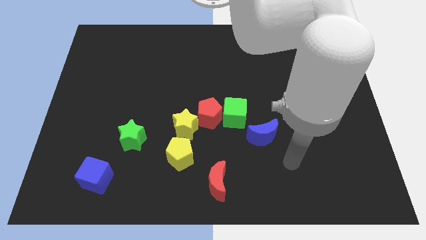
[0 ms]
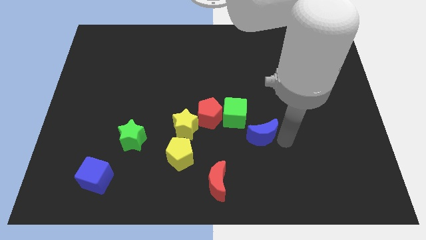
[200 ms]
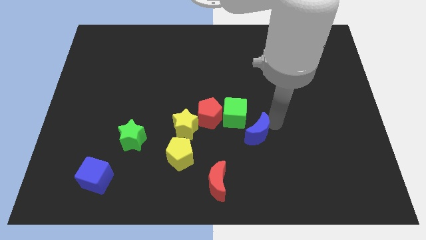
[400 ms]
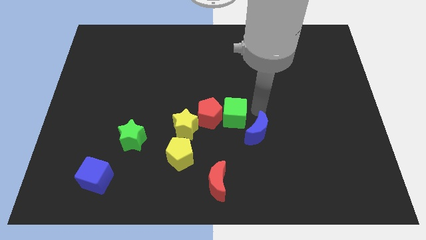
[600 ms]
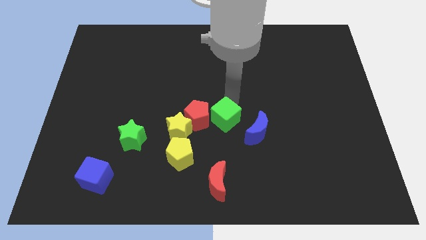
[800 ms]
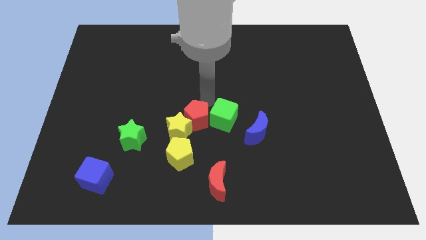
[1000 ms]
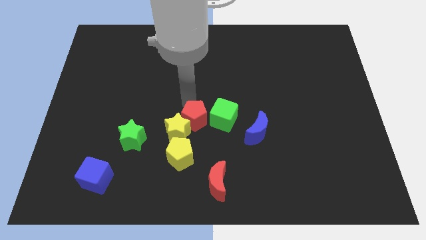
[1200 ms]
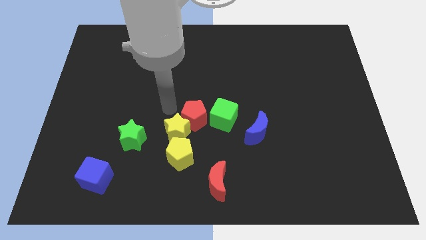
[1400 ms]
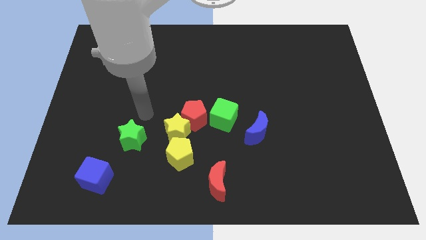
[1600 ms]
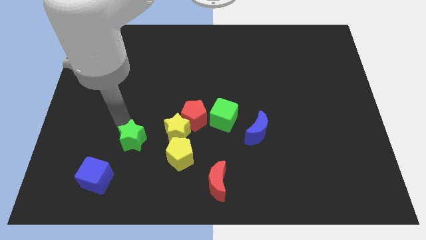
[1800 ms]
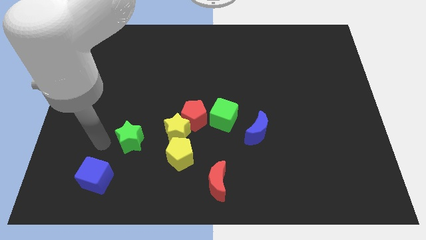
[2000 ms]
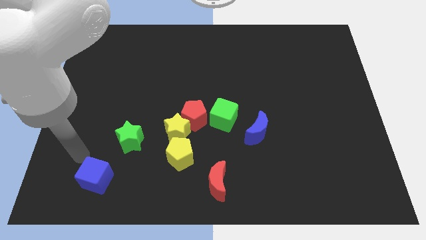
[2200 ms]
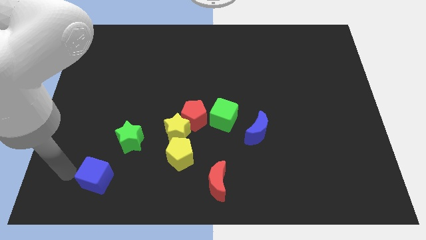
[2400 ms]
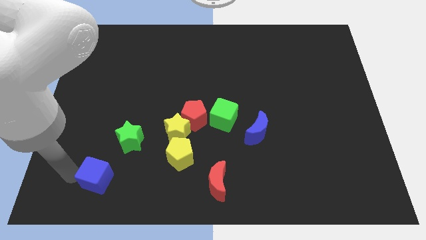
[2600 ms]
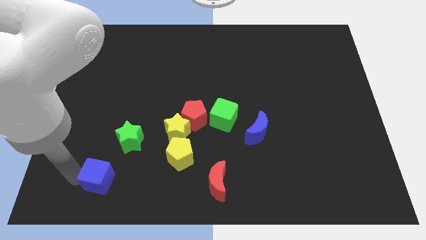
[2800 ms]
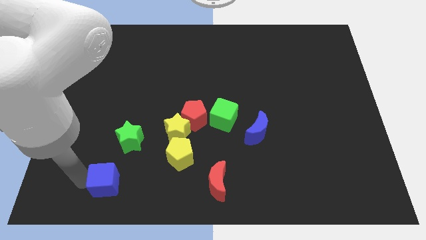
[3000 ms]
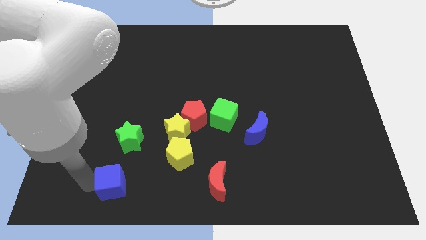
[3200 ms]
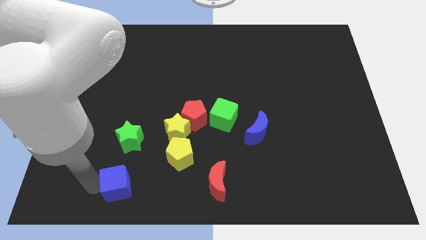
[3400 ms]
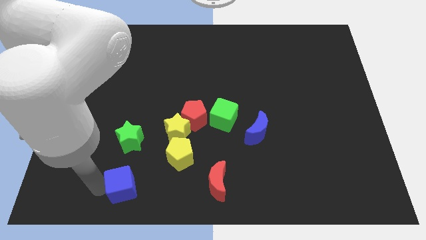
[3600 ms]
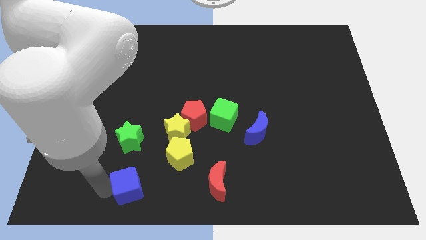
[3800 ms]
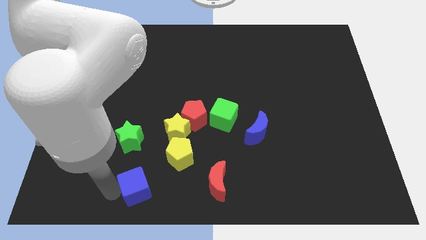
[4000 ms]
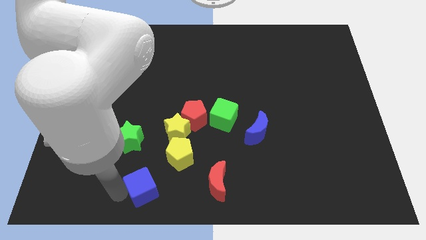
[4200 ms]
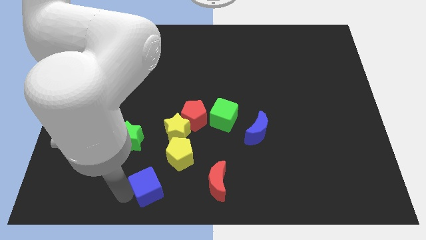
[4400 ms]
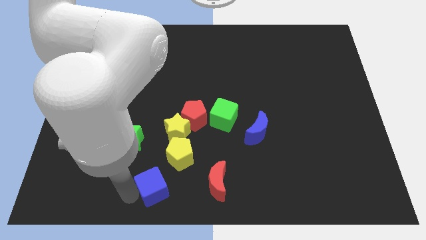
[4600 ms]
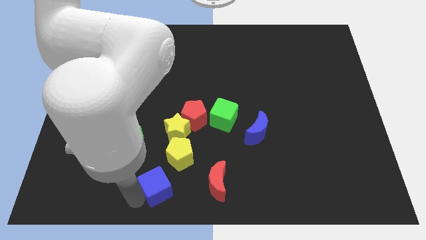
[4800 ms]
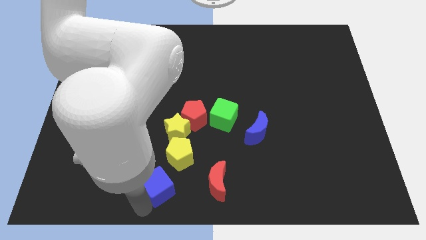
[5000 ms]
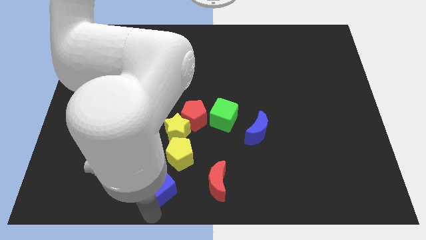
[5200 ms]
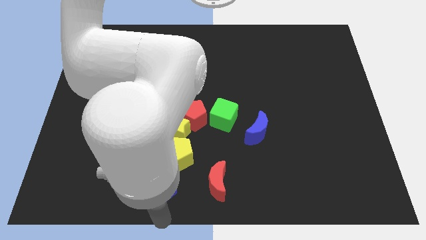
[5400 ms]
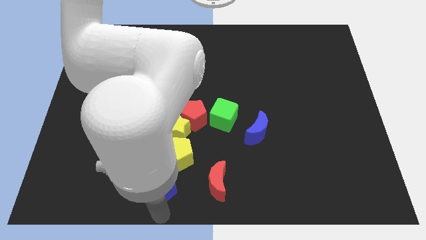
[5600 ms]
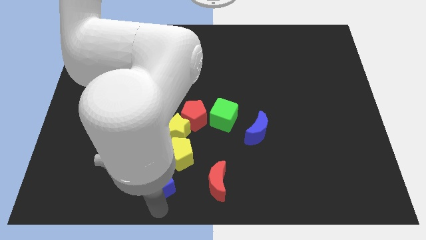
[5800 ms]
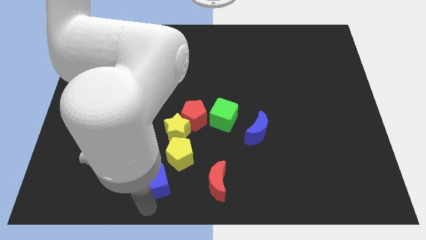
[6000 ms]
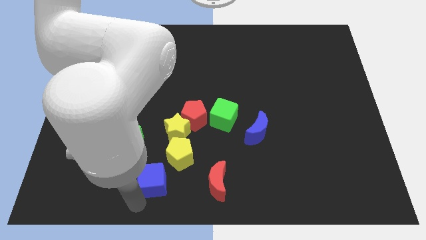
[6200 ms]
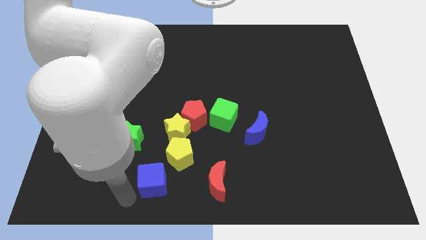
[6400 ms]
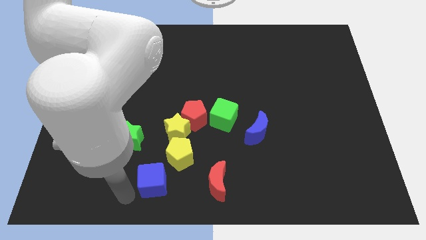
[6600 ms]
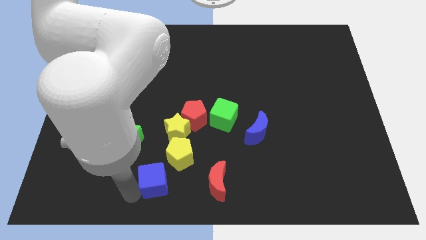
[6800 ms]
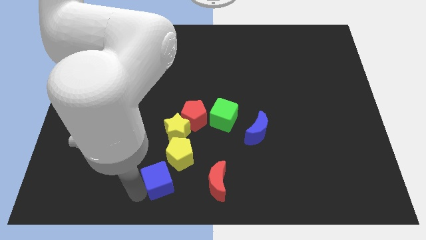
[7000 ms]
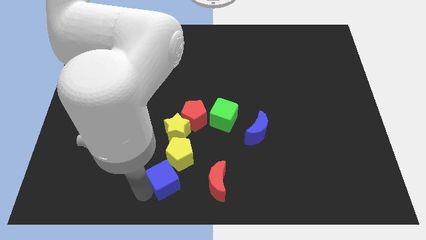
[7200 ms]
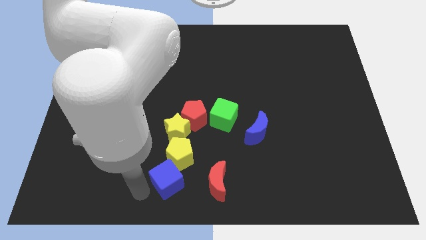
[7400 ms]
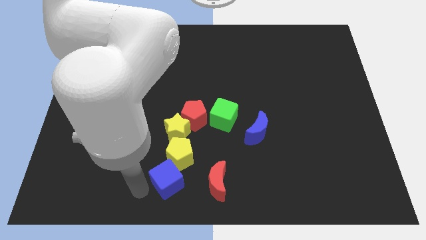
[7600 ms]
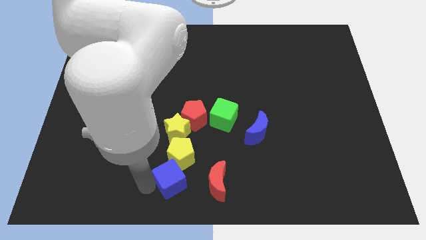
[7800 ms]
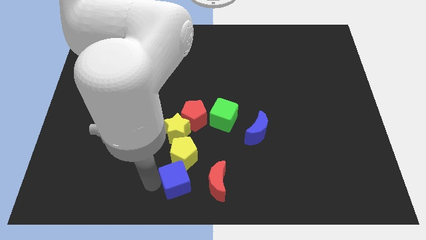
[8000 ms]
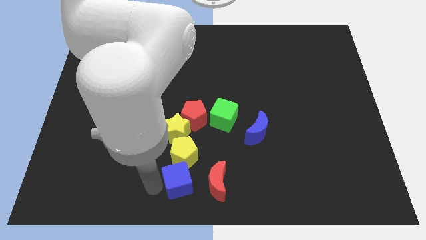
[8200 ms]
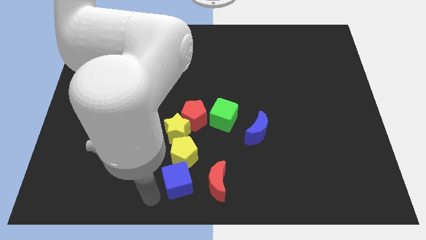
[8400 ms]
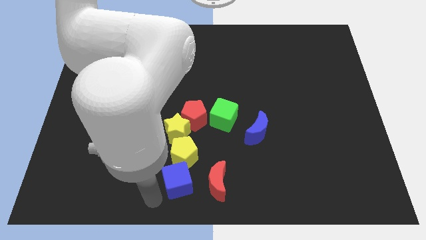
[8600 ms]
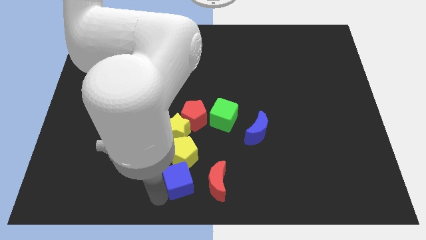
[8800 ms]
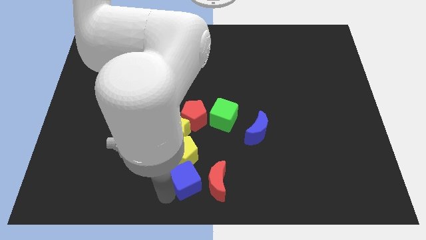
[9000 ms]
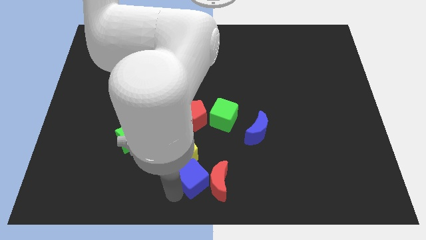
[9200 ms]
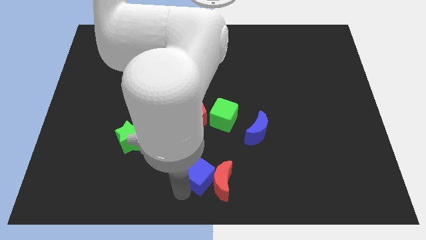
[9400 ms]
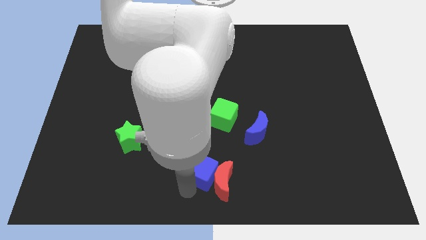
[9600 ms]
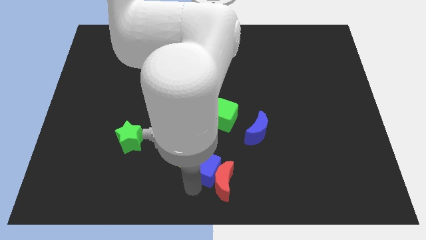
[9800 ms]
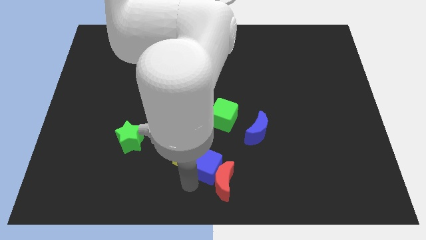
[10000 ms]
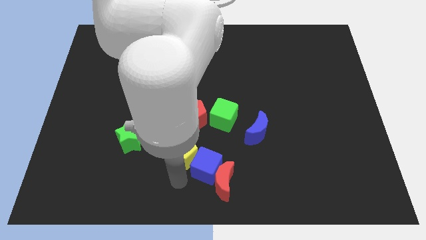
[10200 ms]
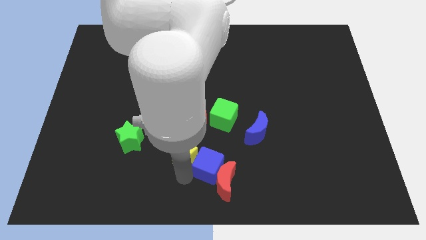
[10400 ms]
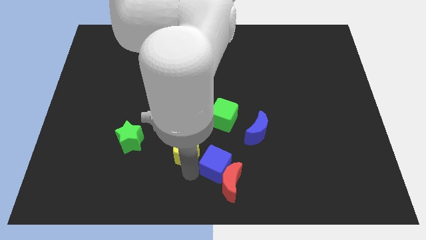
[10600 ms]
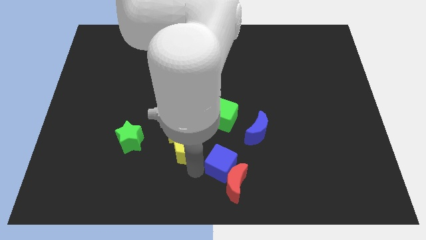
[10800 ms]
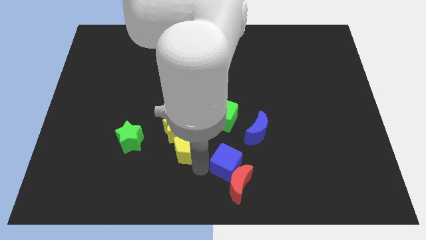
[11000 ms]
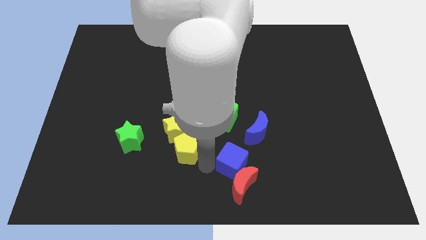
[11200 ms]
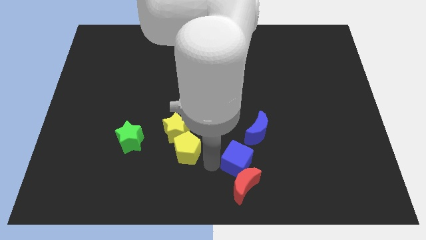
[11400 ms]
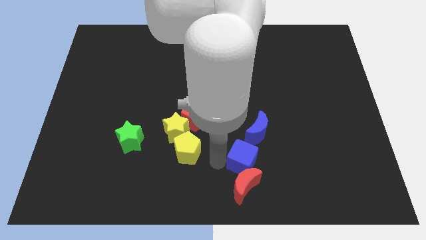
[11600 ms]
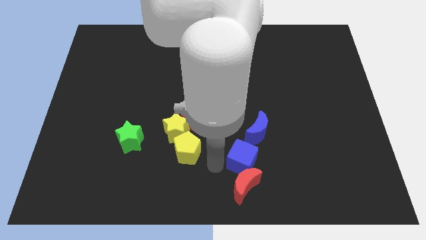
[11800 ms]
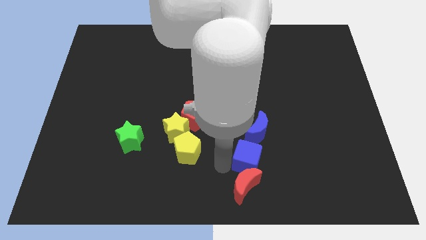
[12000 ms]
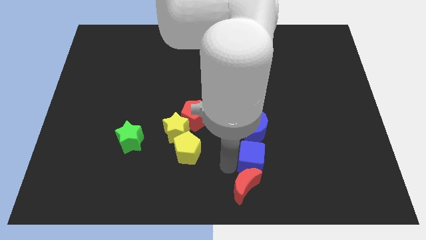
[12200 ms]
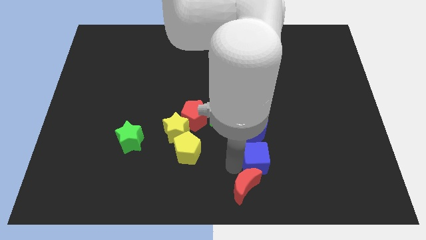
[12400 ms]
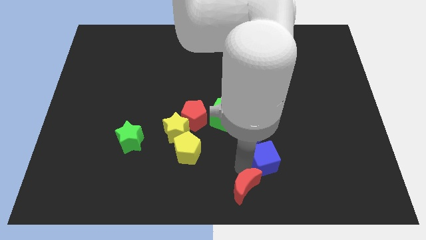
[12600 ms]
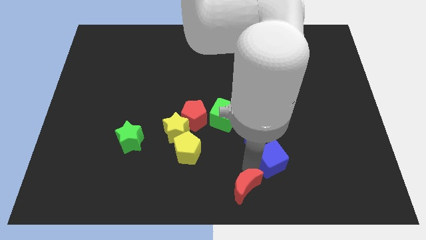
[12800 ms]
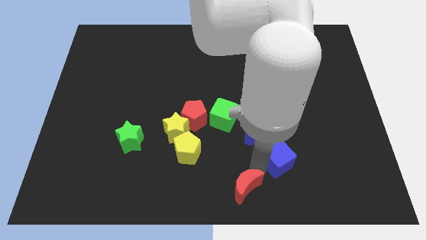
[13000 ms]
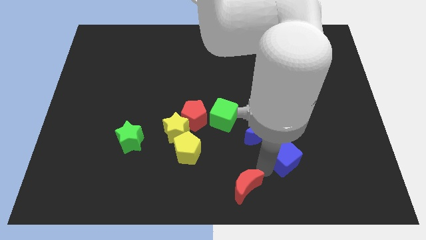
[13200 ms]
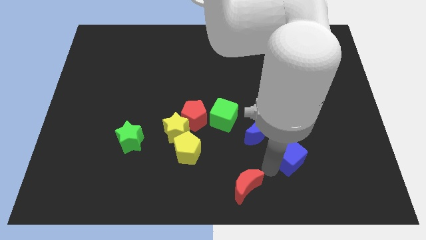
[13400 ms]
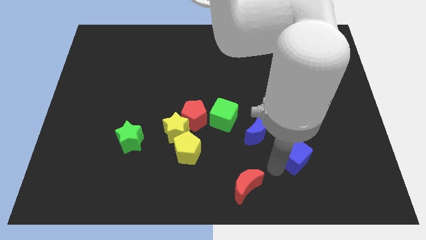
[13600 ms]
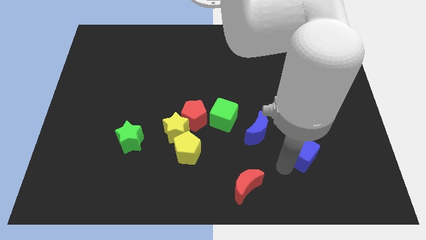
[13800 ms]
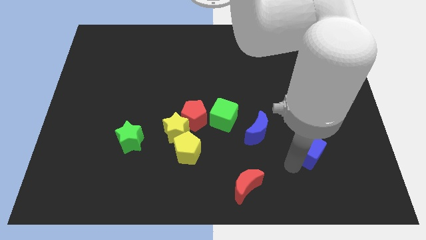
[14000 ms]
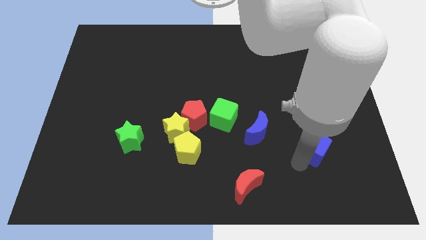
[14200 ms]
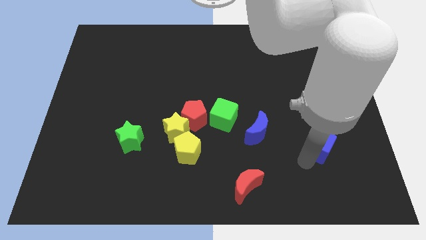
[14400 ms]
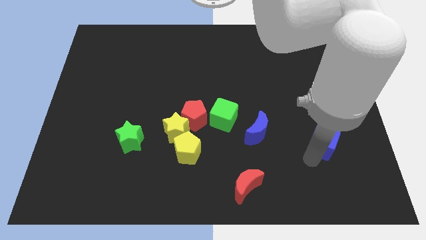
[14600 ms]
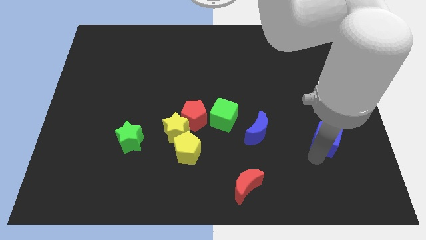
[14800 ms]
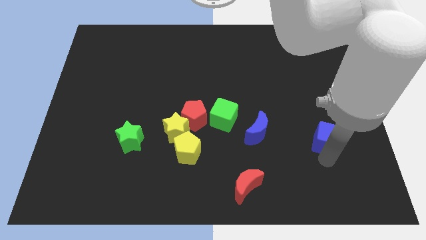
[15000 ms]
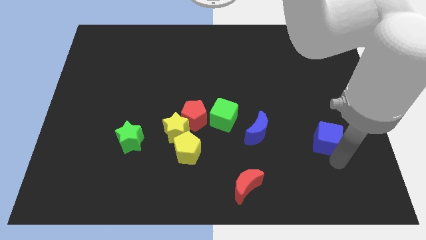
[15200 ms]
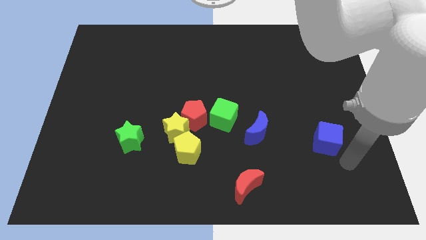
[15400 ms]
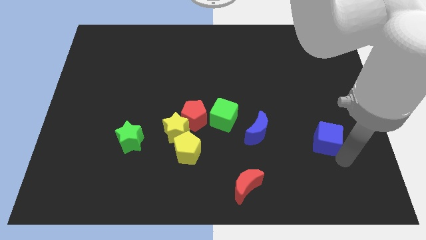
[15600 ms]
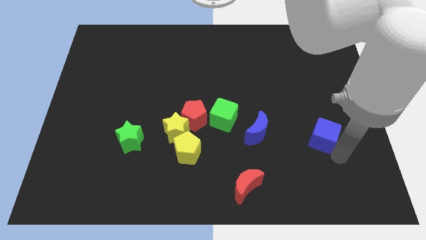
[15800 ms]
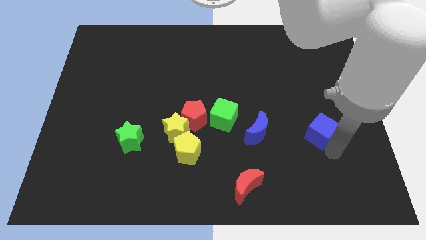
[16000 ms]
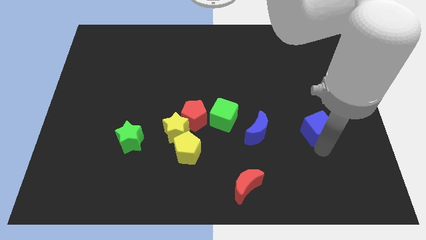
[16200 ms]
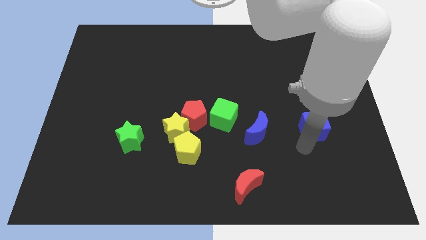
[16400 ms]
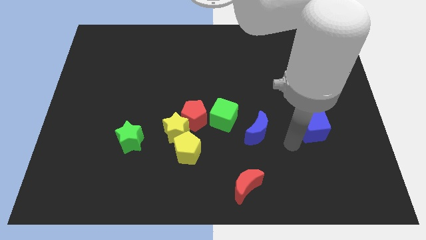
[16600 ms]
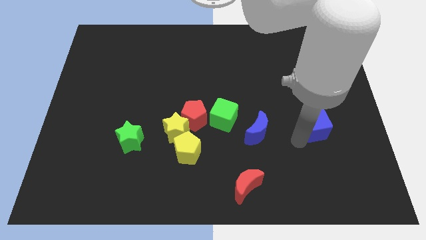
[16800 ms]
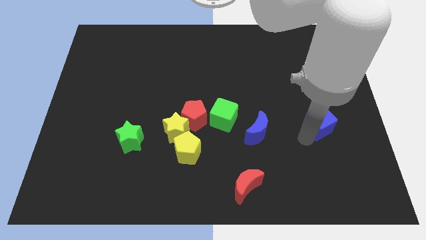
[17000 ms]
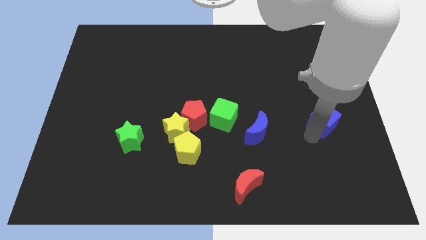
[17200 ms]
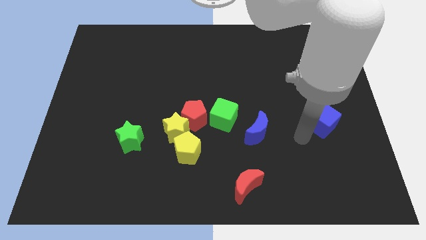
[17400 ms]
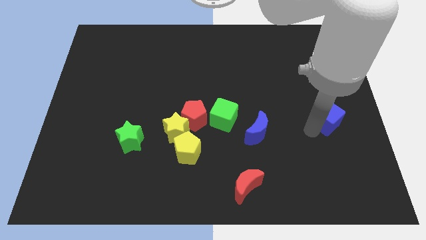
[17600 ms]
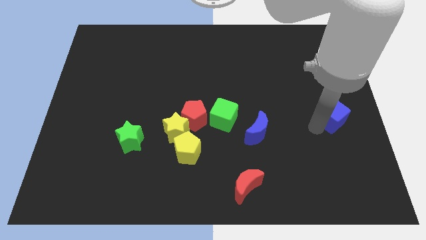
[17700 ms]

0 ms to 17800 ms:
put the blue cube to the right side
